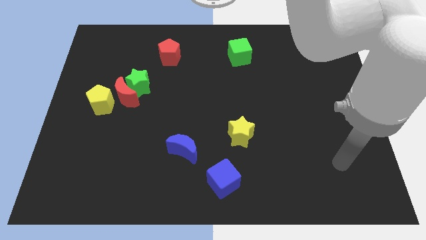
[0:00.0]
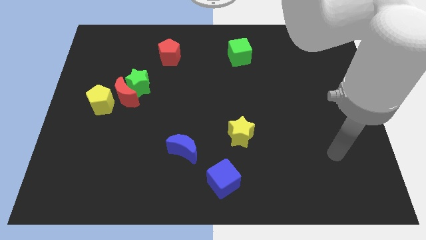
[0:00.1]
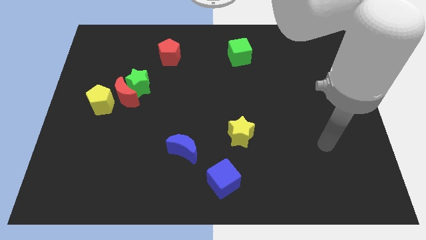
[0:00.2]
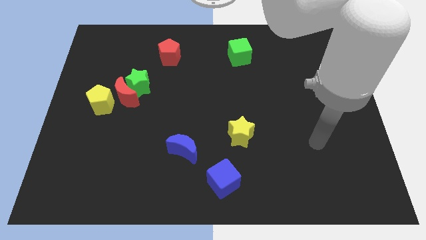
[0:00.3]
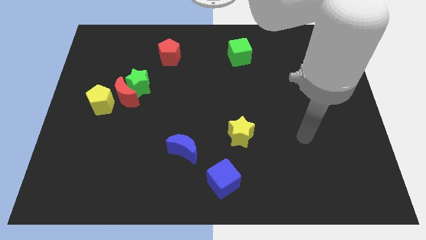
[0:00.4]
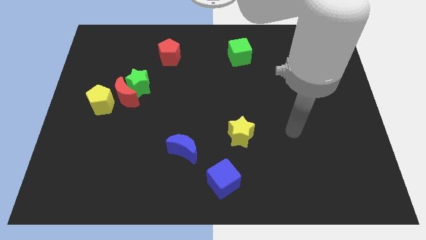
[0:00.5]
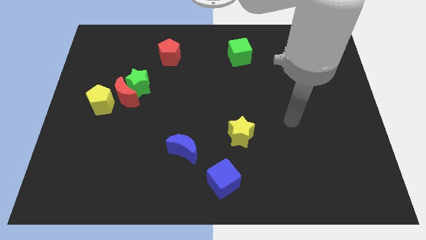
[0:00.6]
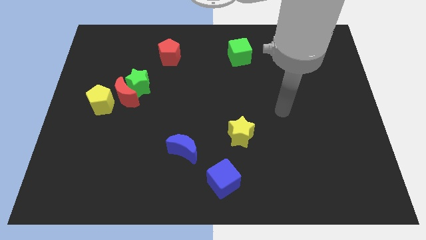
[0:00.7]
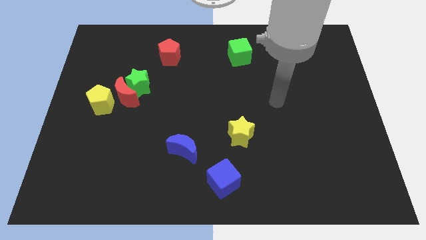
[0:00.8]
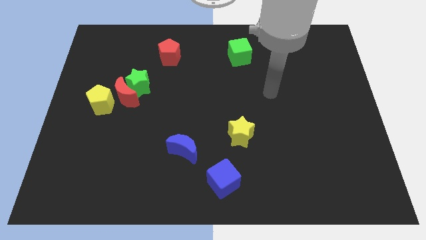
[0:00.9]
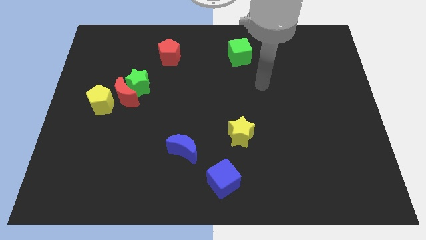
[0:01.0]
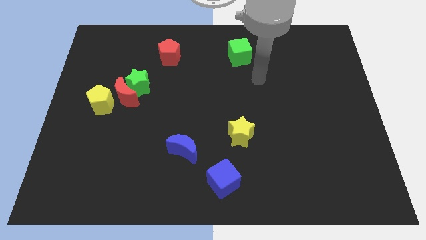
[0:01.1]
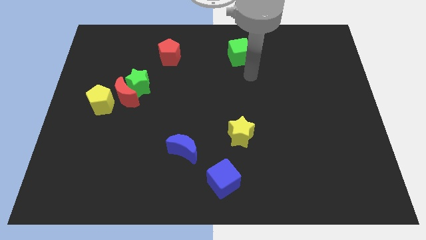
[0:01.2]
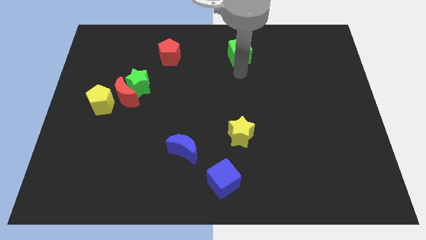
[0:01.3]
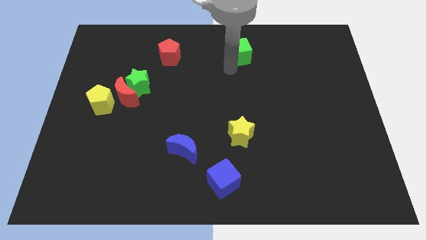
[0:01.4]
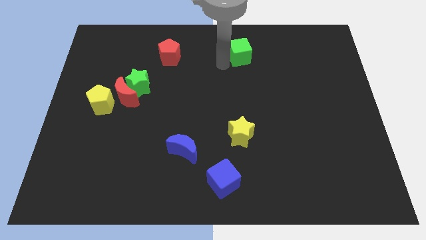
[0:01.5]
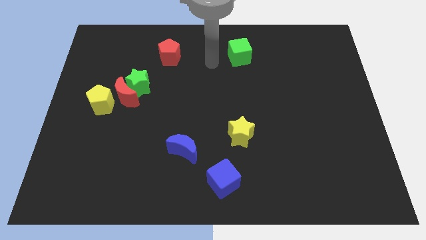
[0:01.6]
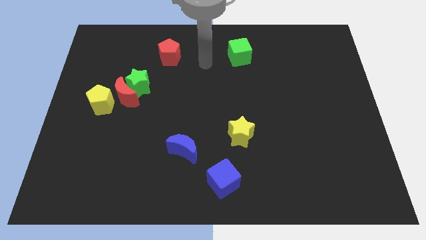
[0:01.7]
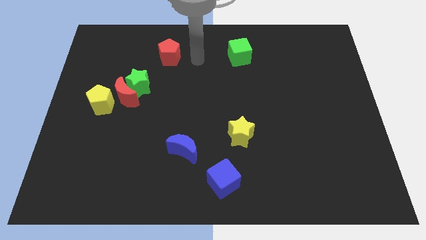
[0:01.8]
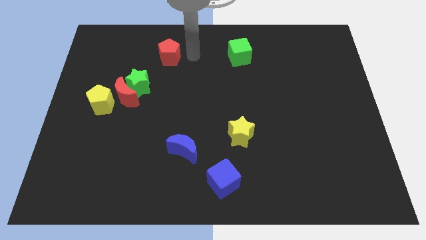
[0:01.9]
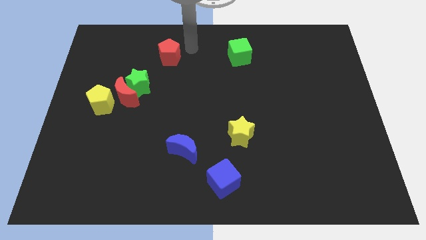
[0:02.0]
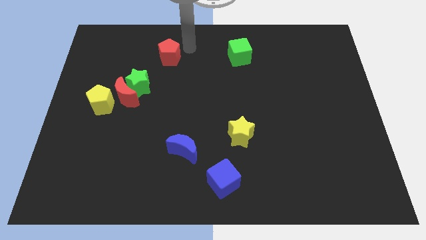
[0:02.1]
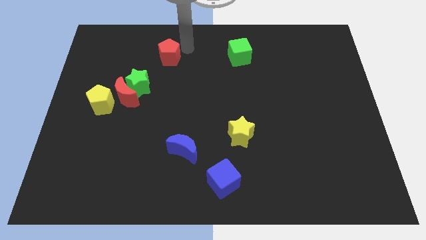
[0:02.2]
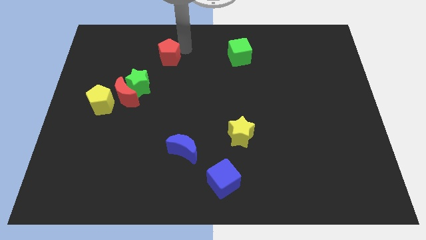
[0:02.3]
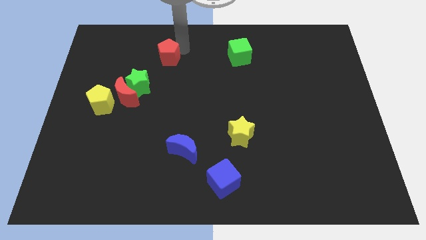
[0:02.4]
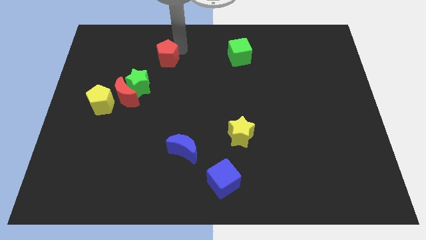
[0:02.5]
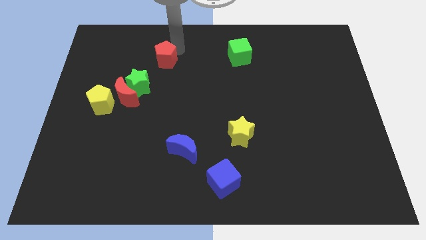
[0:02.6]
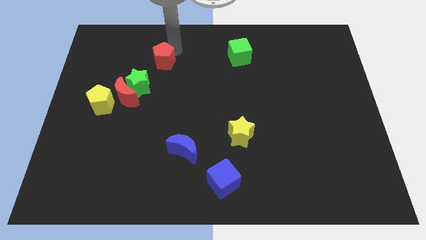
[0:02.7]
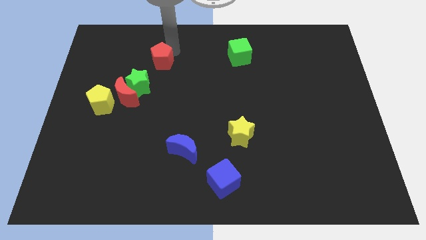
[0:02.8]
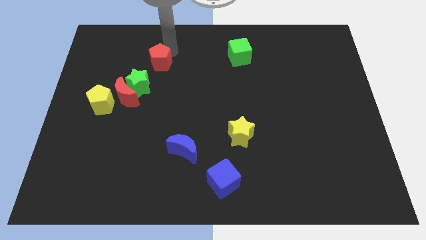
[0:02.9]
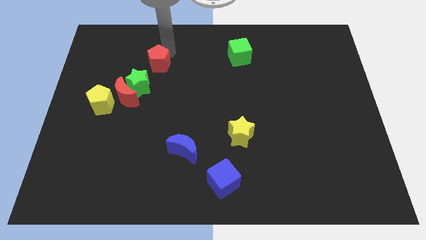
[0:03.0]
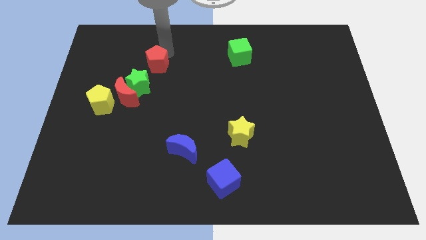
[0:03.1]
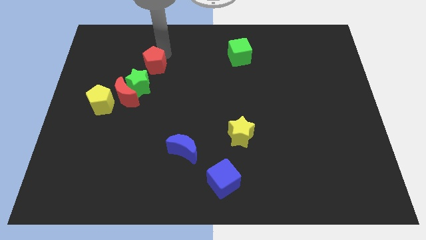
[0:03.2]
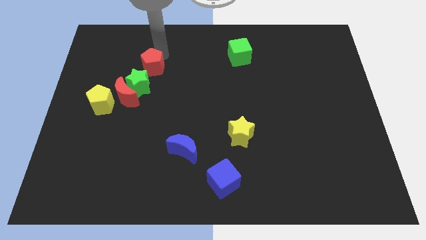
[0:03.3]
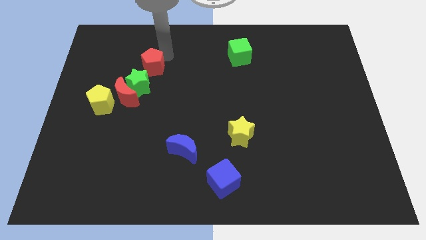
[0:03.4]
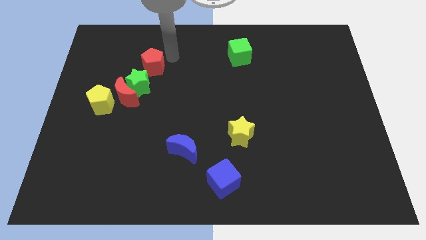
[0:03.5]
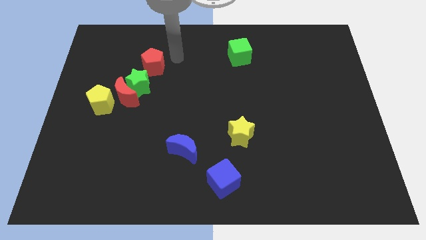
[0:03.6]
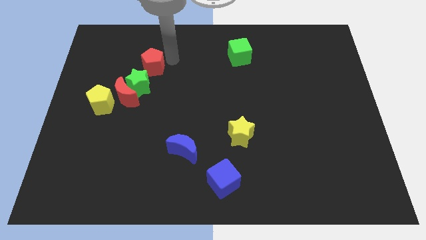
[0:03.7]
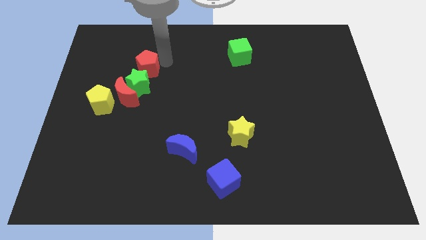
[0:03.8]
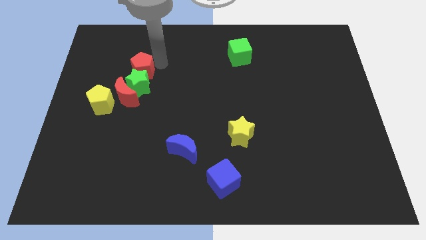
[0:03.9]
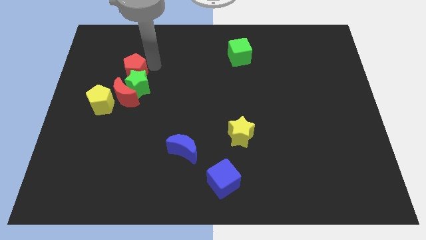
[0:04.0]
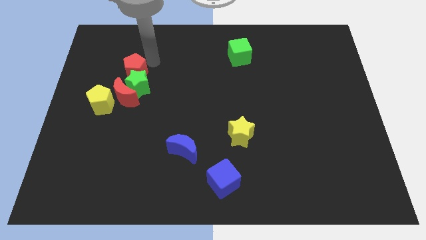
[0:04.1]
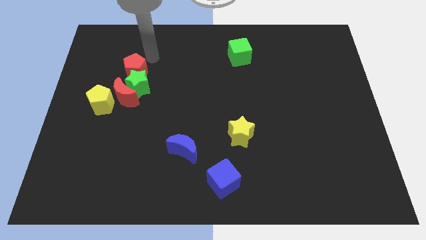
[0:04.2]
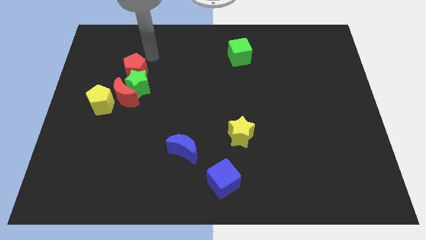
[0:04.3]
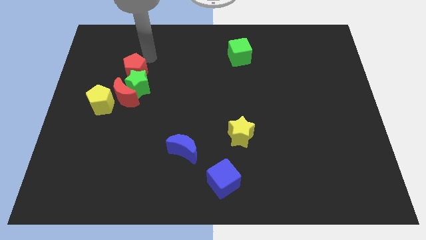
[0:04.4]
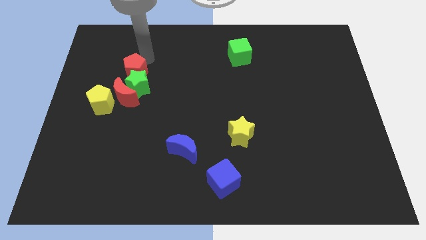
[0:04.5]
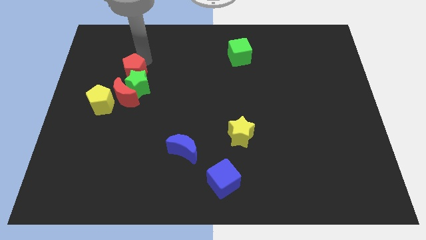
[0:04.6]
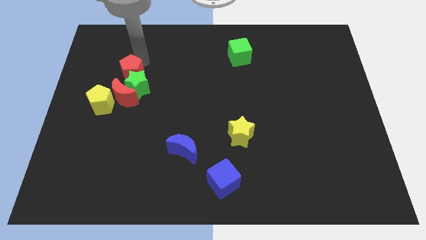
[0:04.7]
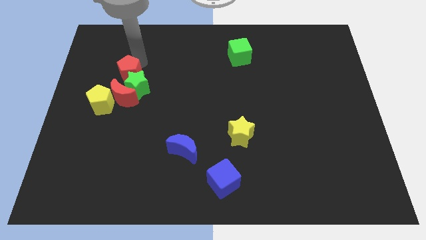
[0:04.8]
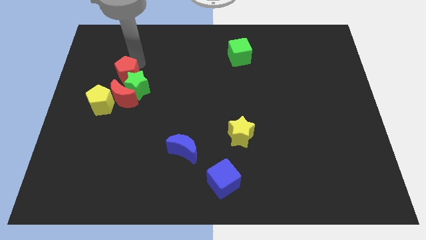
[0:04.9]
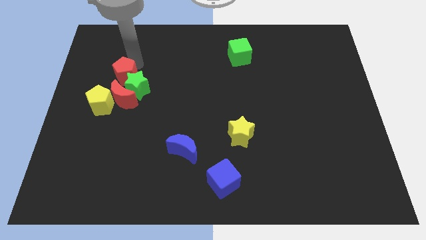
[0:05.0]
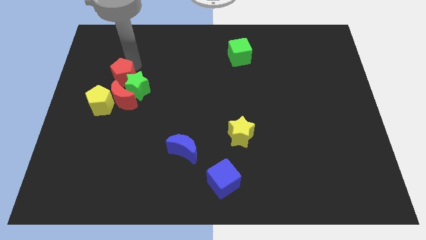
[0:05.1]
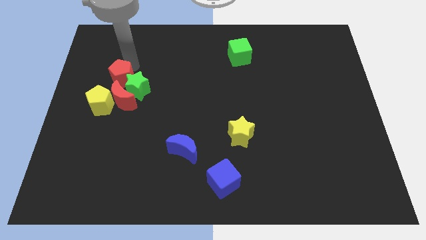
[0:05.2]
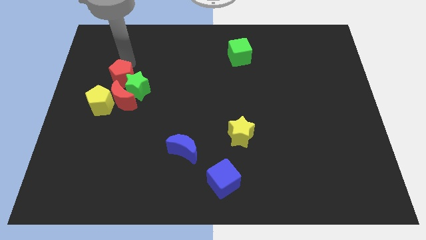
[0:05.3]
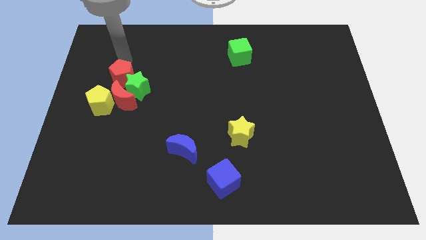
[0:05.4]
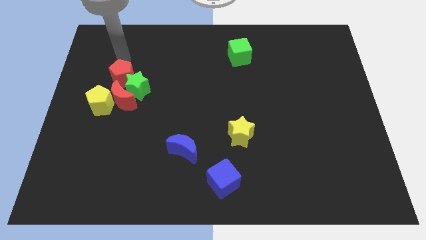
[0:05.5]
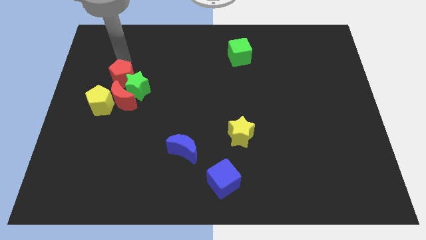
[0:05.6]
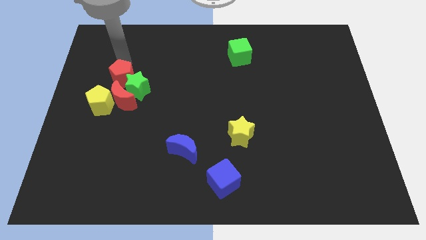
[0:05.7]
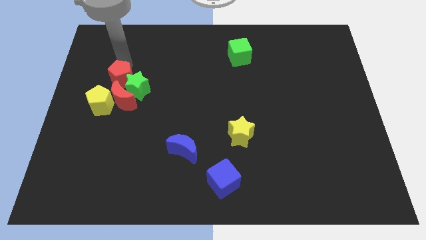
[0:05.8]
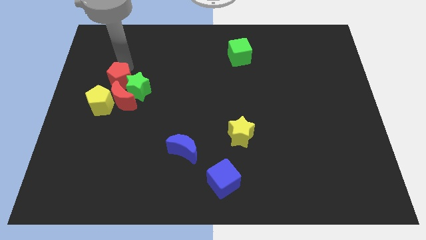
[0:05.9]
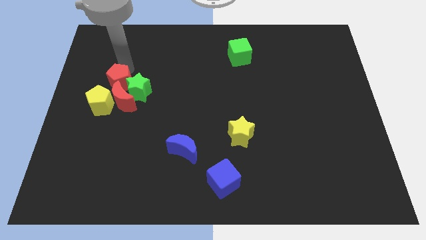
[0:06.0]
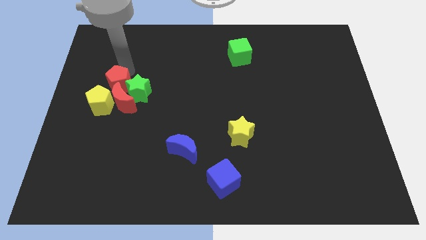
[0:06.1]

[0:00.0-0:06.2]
put the red pentagon to the red moon
